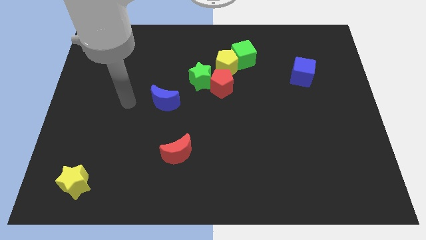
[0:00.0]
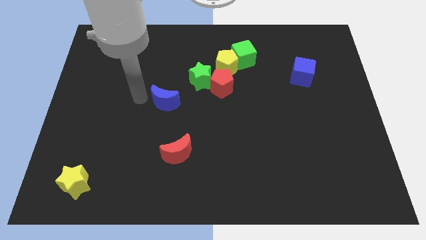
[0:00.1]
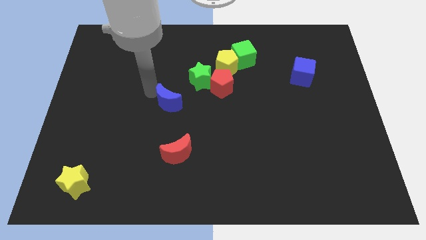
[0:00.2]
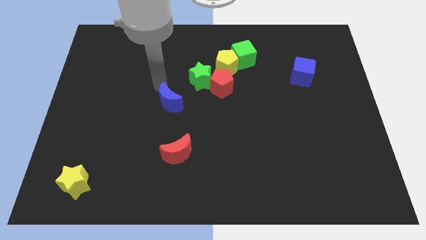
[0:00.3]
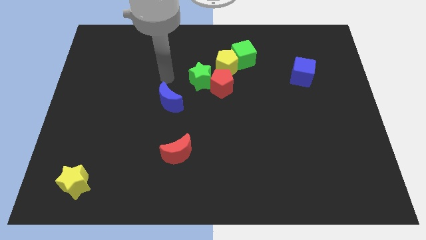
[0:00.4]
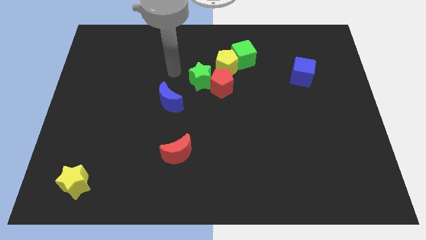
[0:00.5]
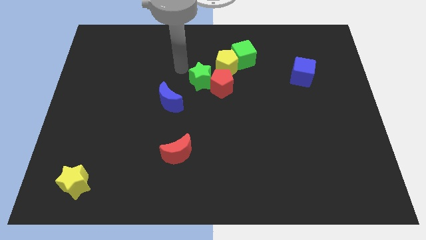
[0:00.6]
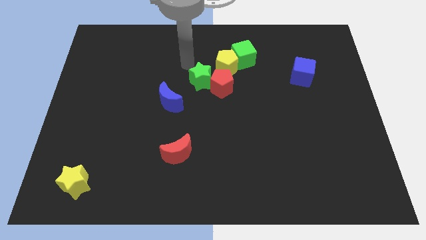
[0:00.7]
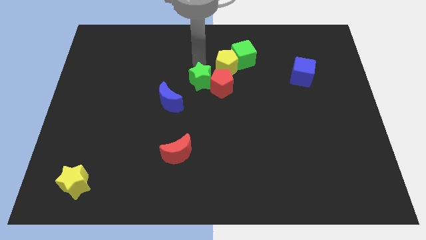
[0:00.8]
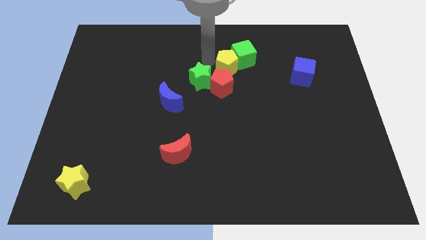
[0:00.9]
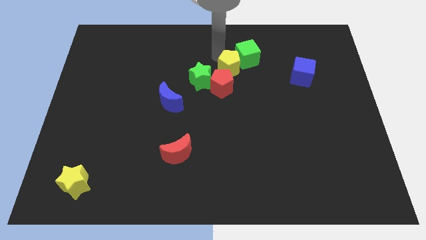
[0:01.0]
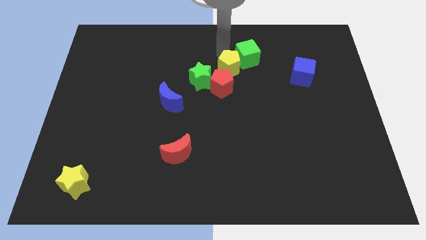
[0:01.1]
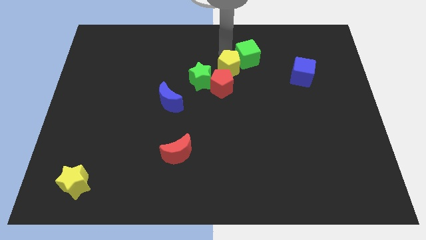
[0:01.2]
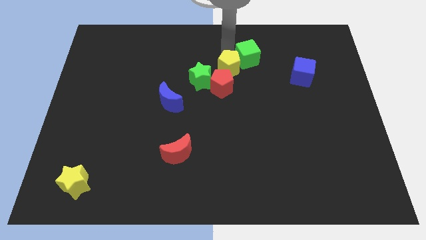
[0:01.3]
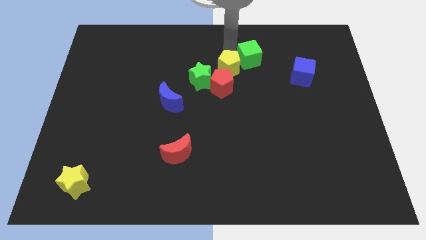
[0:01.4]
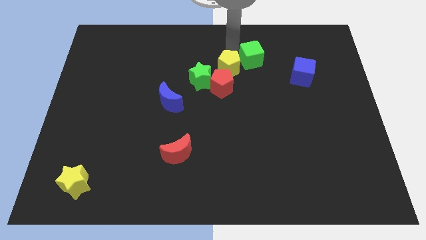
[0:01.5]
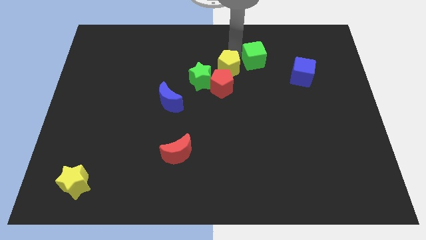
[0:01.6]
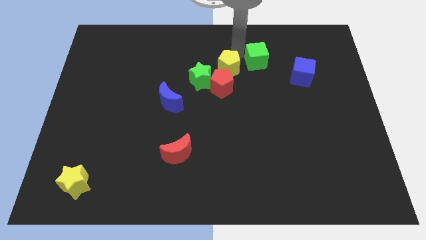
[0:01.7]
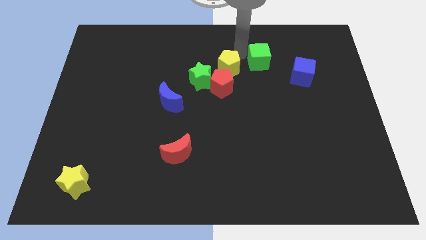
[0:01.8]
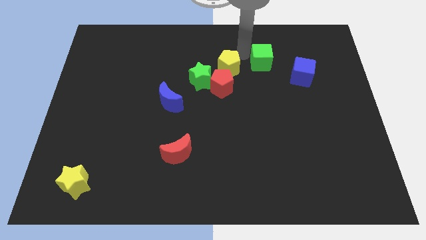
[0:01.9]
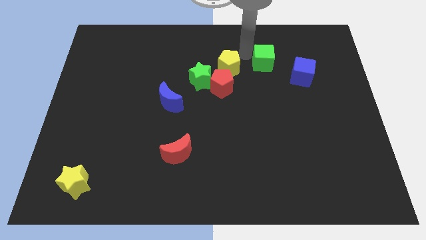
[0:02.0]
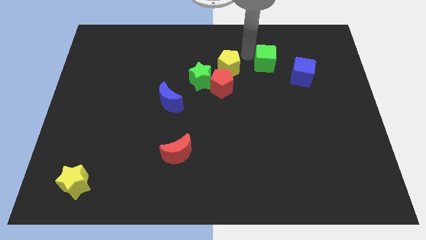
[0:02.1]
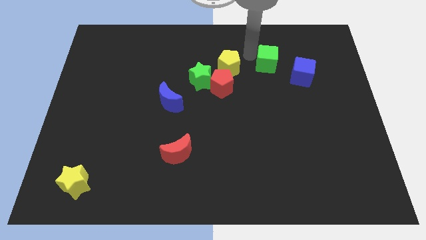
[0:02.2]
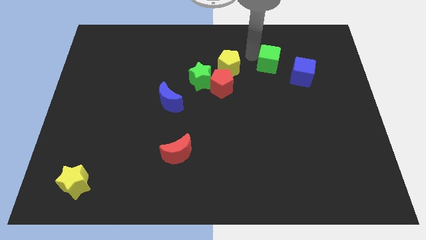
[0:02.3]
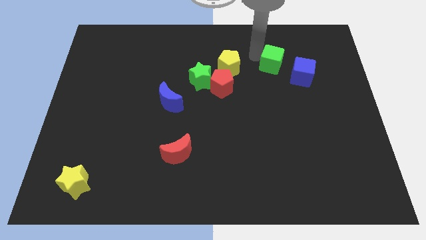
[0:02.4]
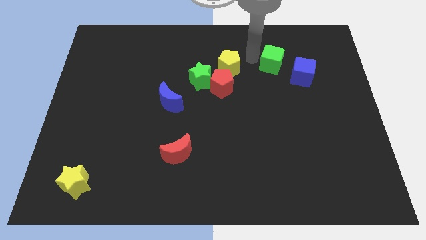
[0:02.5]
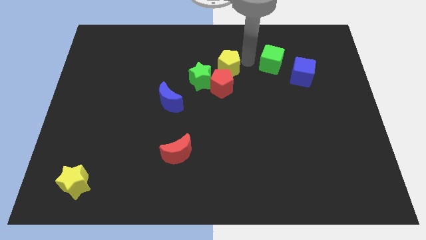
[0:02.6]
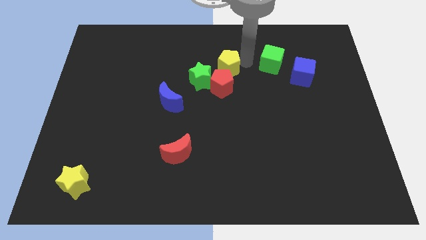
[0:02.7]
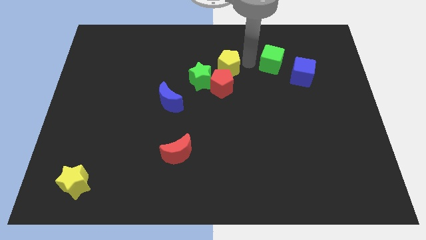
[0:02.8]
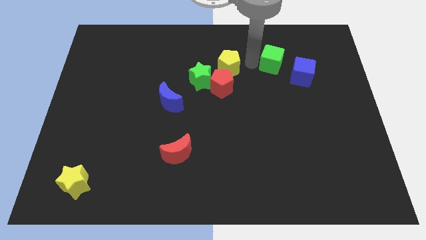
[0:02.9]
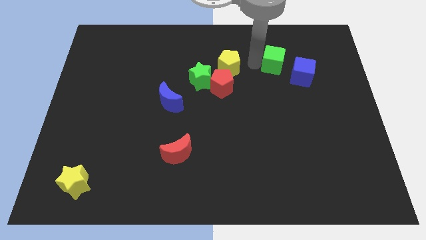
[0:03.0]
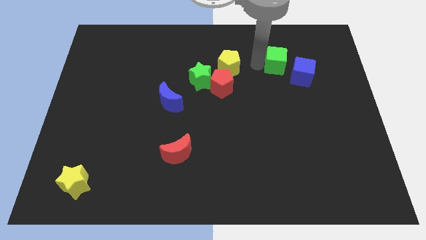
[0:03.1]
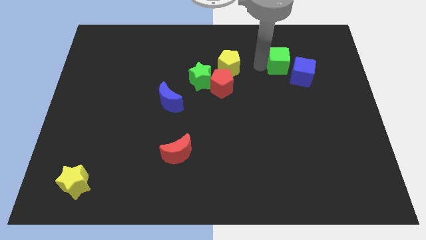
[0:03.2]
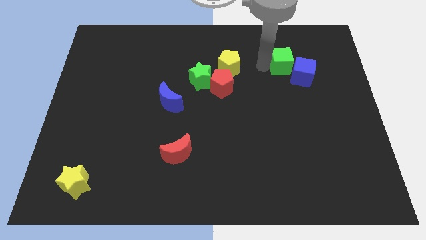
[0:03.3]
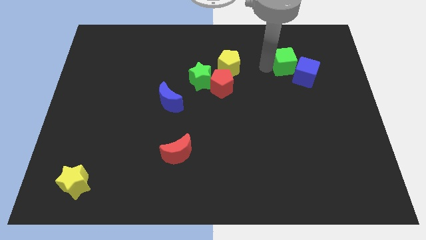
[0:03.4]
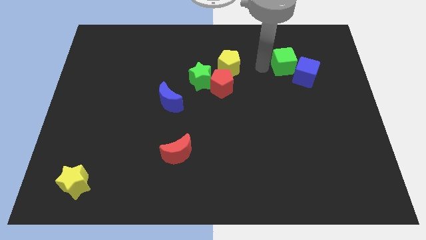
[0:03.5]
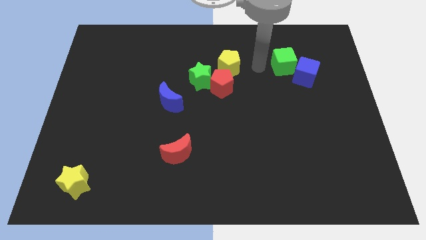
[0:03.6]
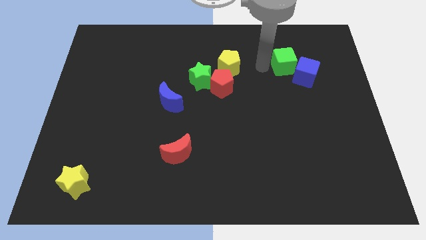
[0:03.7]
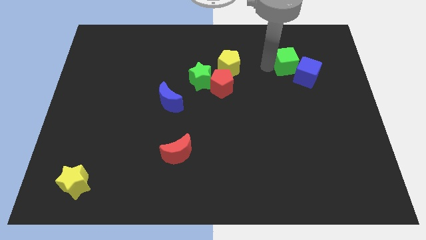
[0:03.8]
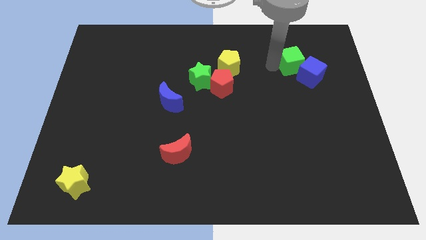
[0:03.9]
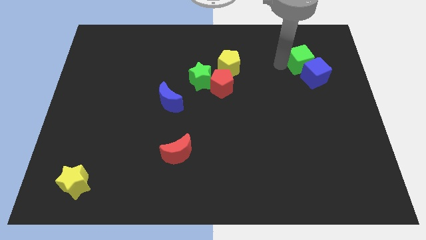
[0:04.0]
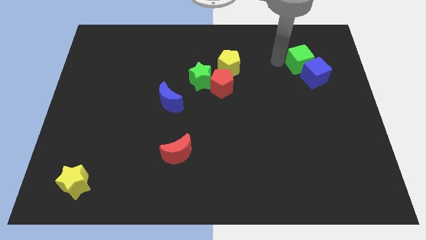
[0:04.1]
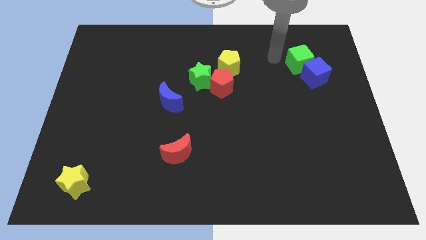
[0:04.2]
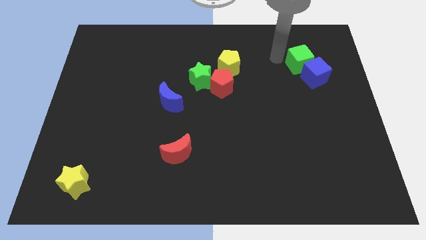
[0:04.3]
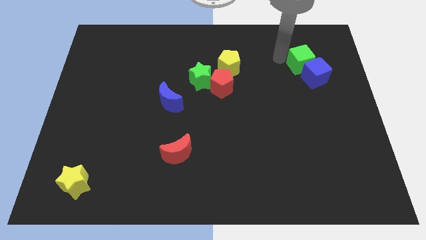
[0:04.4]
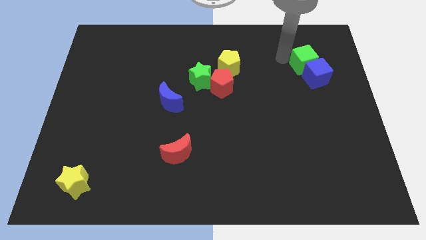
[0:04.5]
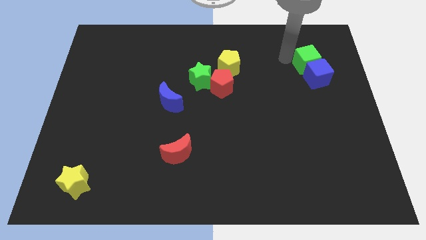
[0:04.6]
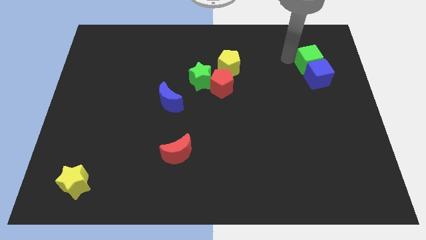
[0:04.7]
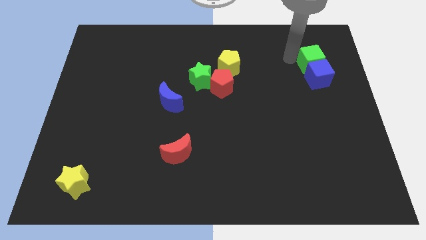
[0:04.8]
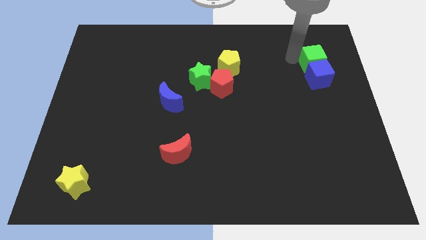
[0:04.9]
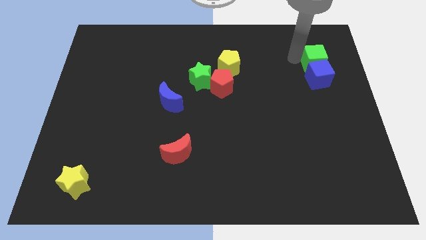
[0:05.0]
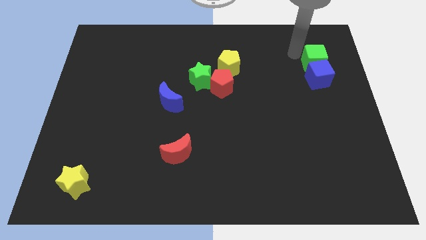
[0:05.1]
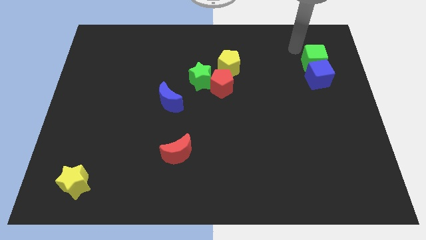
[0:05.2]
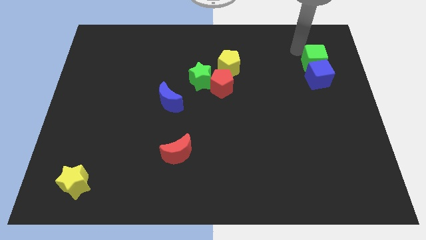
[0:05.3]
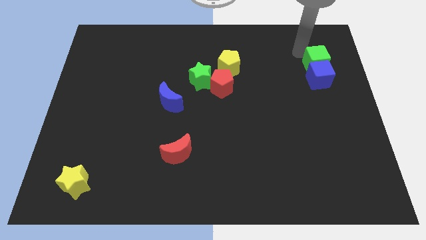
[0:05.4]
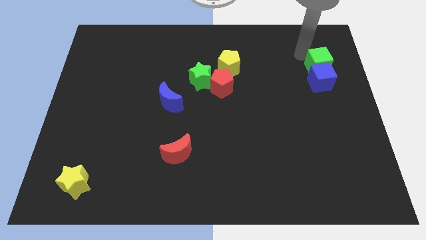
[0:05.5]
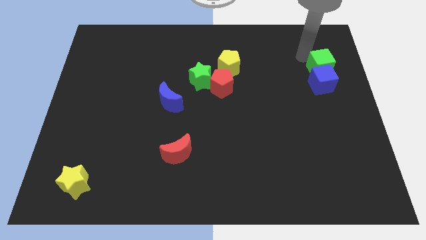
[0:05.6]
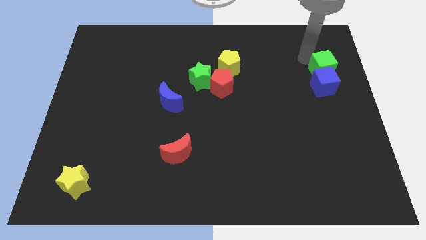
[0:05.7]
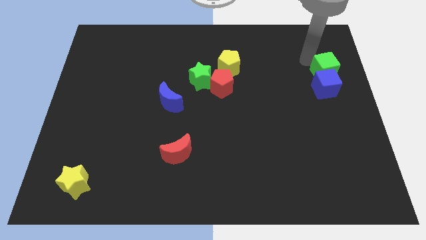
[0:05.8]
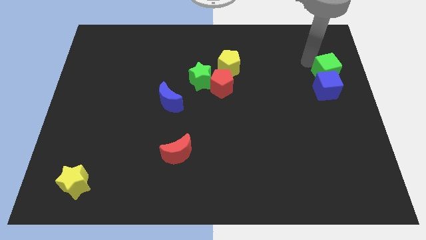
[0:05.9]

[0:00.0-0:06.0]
put the green cube to the right side of the board

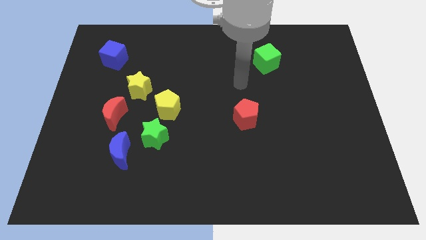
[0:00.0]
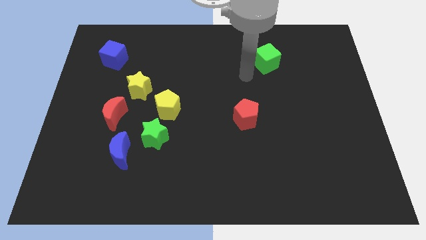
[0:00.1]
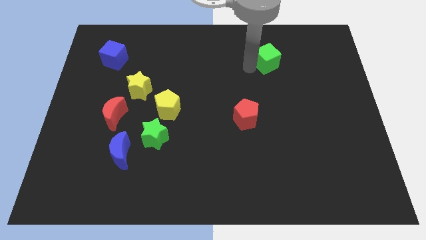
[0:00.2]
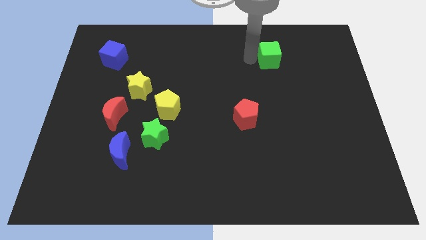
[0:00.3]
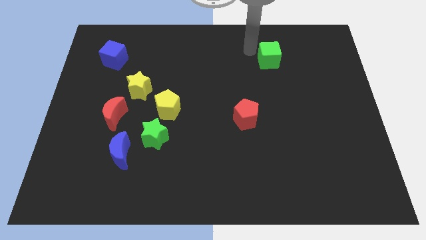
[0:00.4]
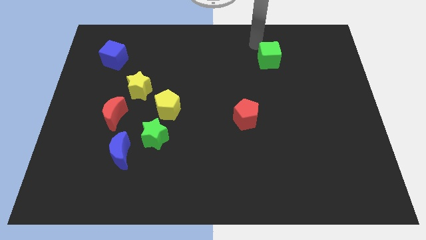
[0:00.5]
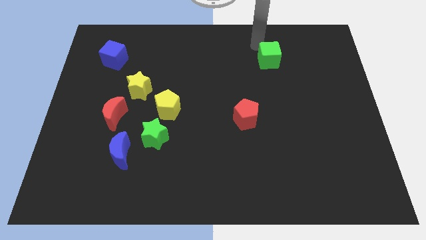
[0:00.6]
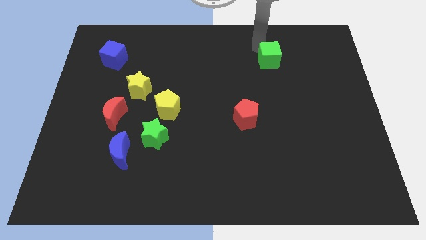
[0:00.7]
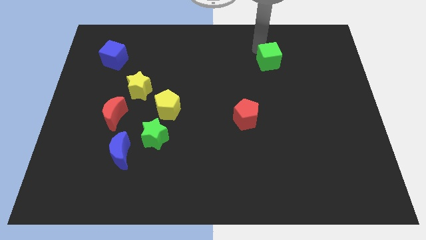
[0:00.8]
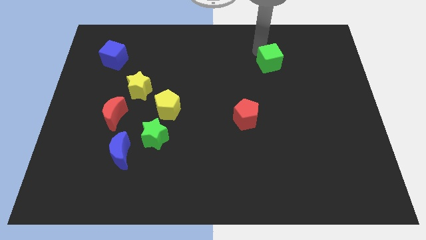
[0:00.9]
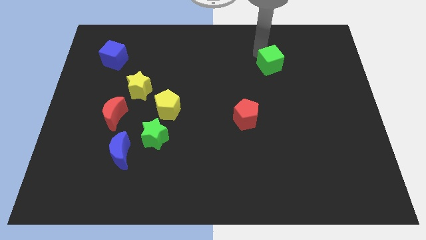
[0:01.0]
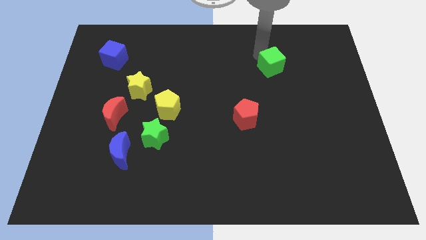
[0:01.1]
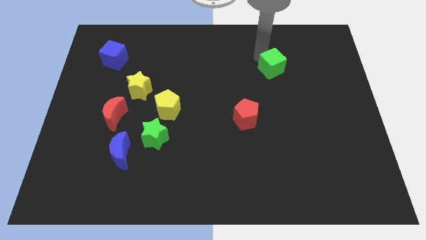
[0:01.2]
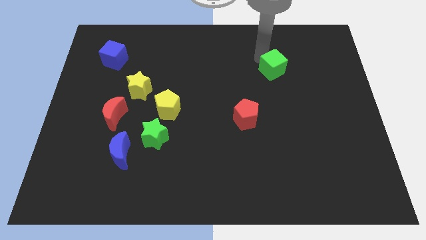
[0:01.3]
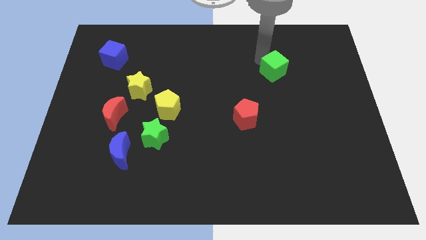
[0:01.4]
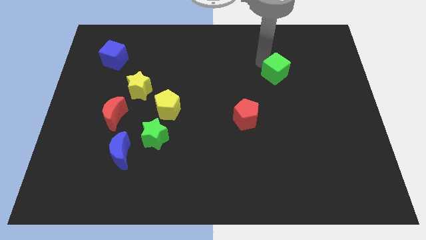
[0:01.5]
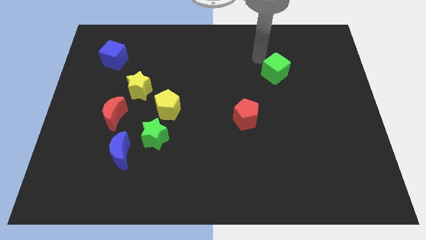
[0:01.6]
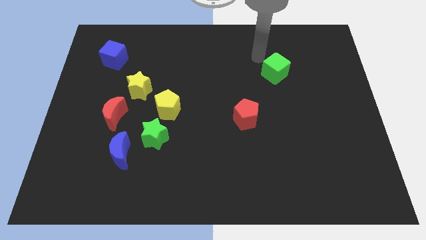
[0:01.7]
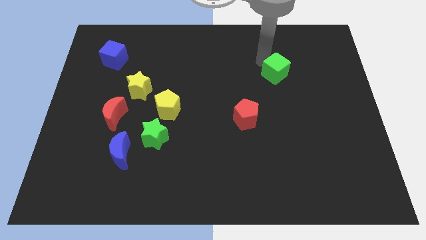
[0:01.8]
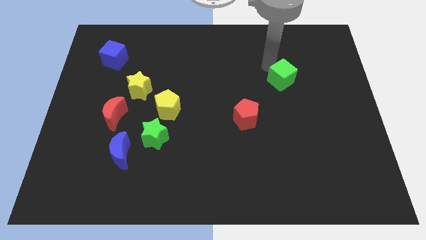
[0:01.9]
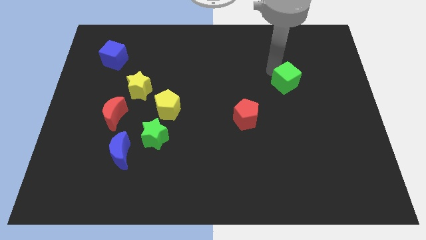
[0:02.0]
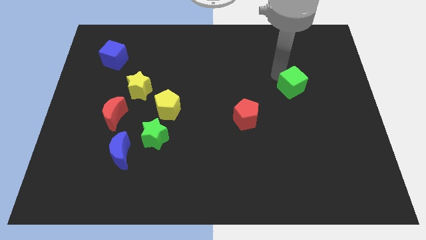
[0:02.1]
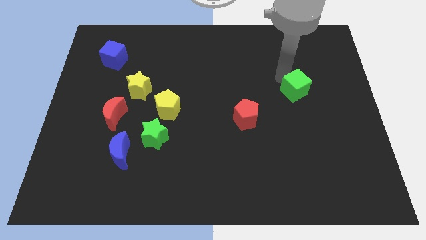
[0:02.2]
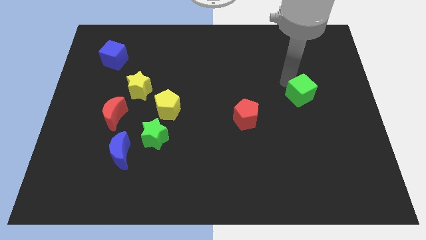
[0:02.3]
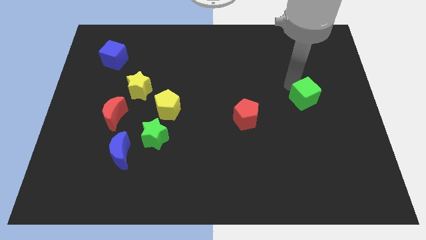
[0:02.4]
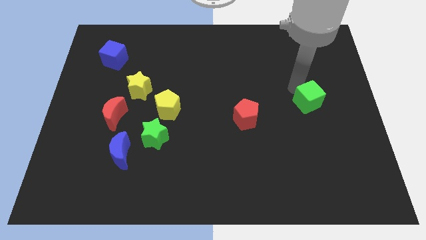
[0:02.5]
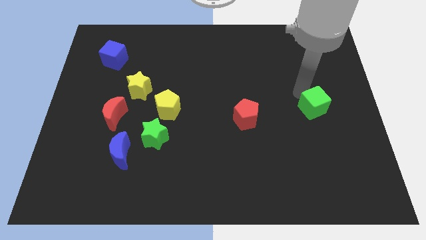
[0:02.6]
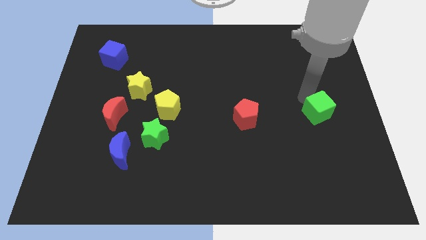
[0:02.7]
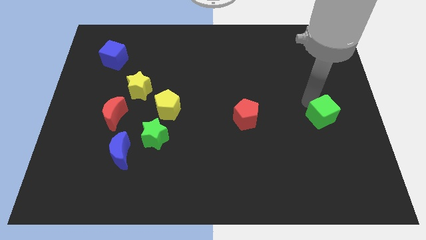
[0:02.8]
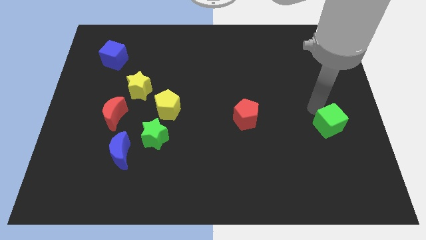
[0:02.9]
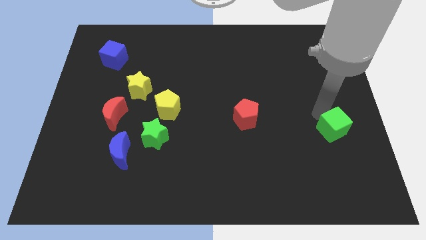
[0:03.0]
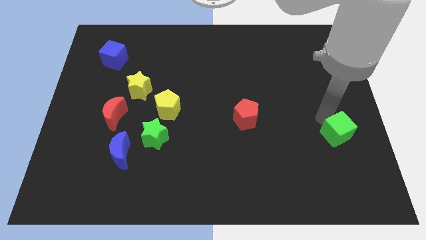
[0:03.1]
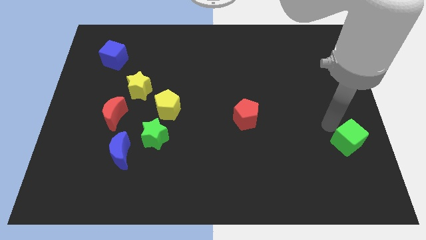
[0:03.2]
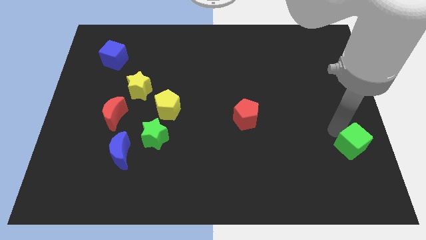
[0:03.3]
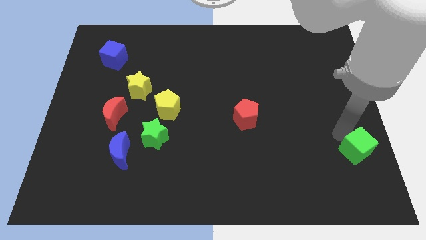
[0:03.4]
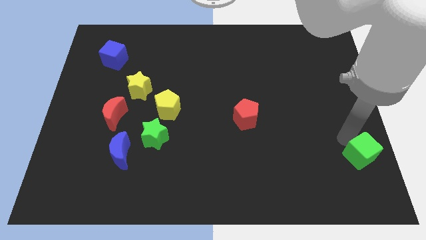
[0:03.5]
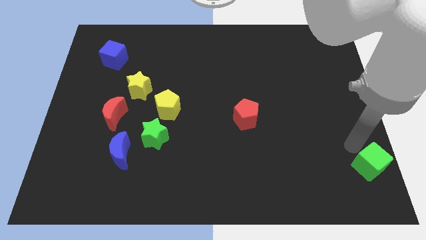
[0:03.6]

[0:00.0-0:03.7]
put the green cube to the lower right corner
